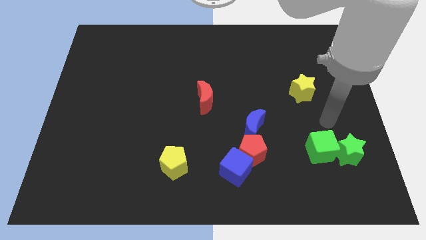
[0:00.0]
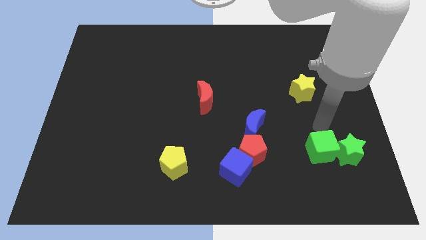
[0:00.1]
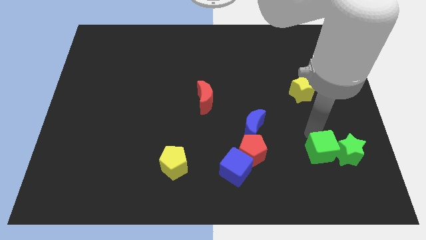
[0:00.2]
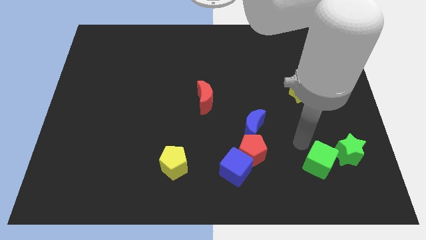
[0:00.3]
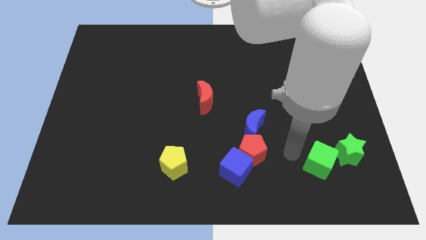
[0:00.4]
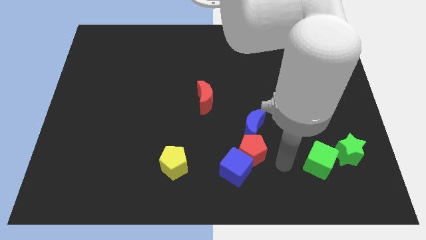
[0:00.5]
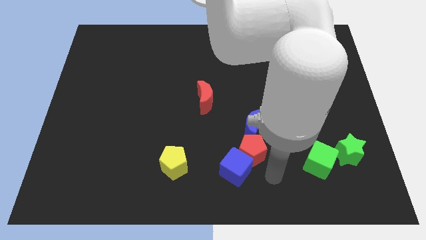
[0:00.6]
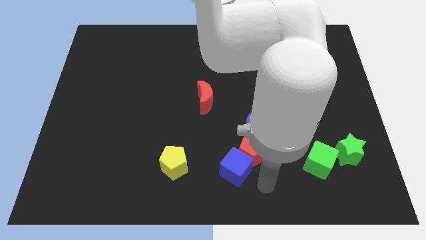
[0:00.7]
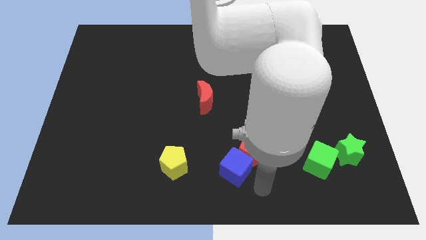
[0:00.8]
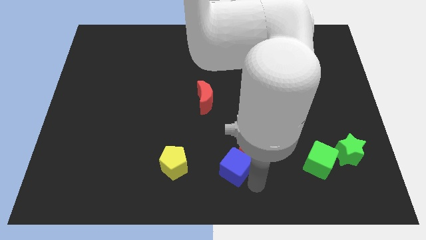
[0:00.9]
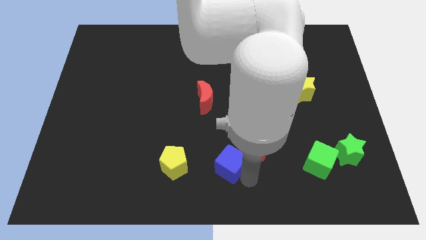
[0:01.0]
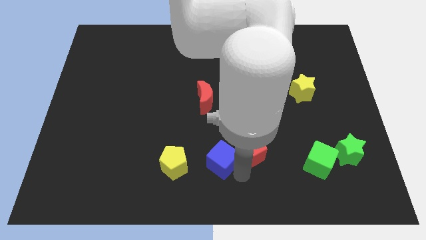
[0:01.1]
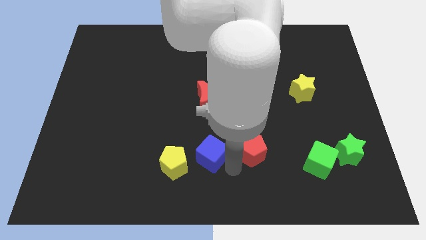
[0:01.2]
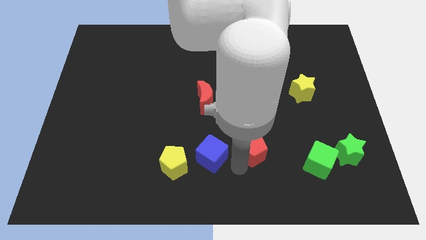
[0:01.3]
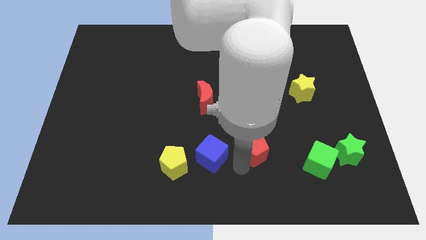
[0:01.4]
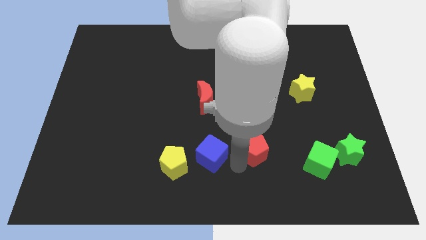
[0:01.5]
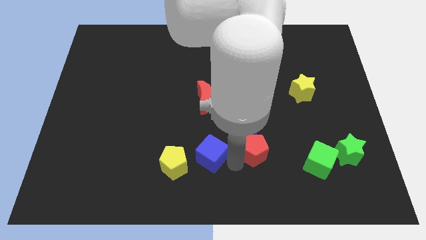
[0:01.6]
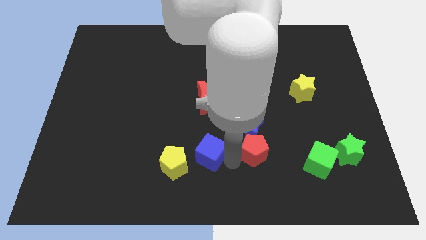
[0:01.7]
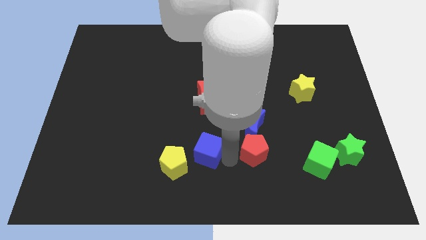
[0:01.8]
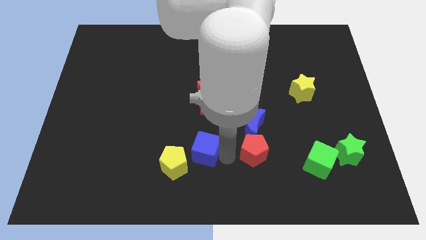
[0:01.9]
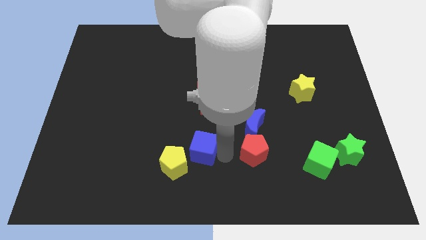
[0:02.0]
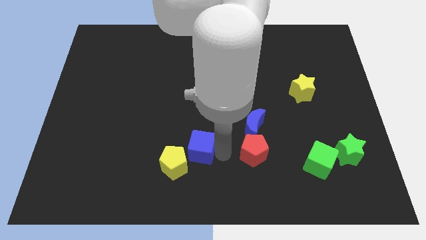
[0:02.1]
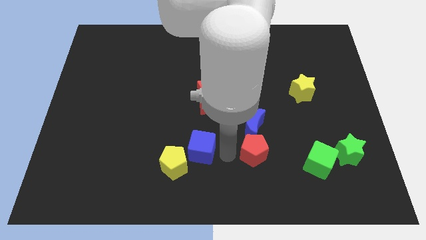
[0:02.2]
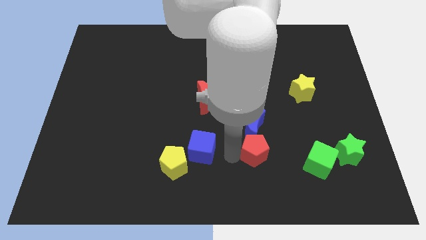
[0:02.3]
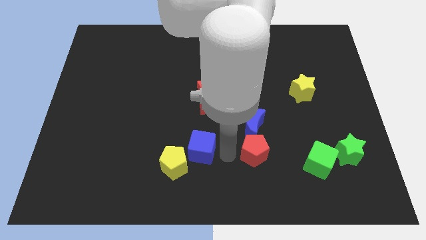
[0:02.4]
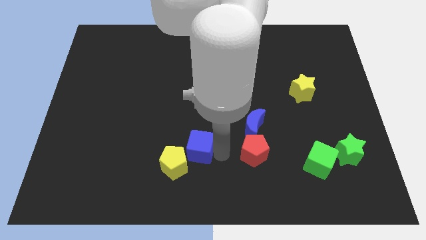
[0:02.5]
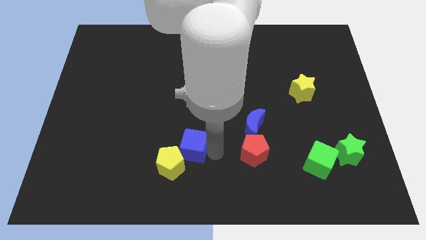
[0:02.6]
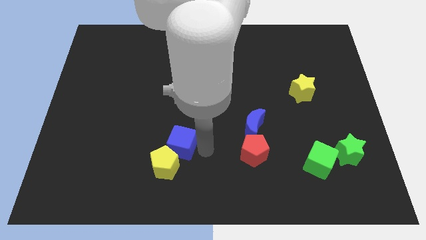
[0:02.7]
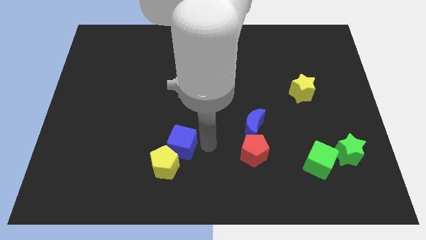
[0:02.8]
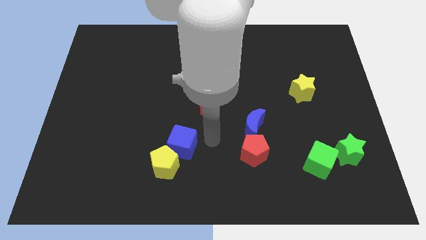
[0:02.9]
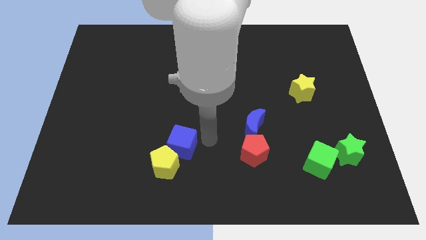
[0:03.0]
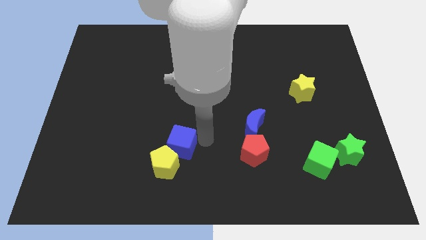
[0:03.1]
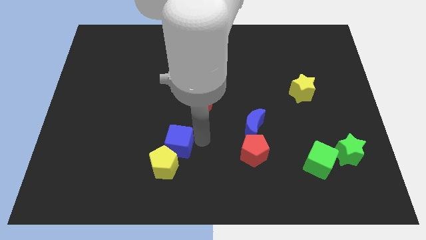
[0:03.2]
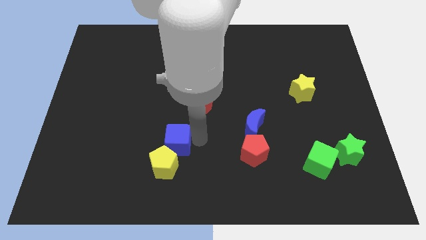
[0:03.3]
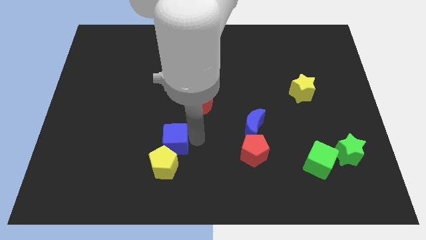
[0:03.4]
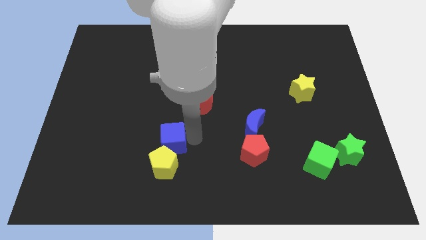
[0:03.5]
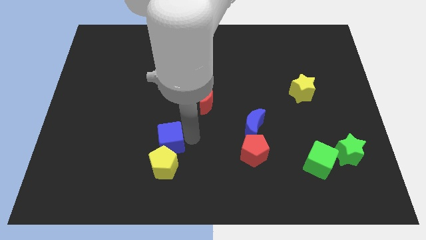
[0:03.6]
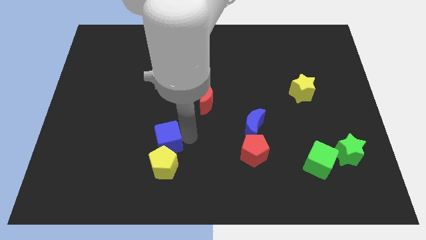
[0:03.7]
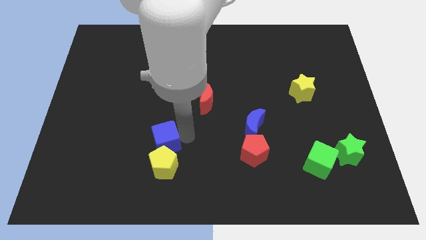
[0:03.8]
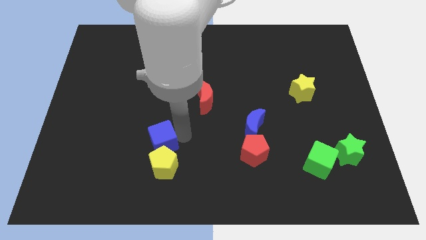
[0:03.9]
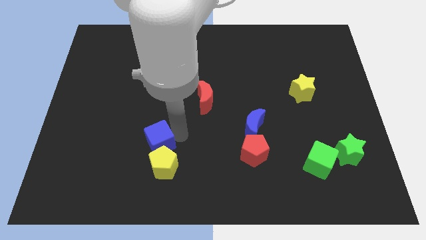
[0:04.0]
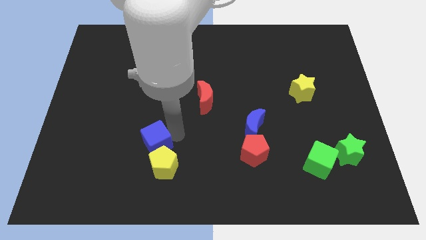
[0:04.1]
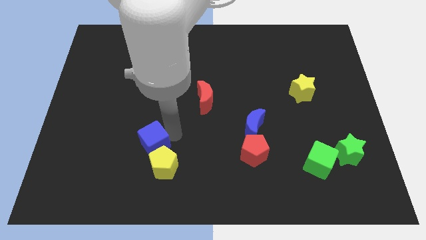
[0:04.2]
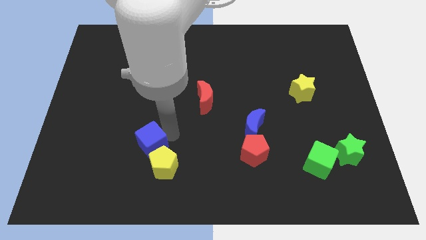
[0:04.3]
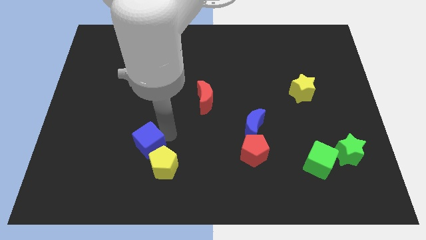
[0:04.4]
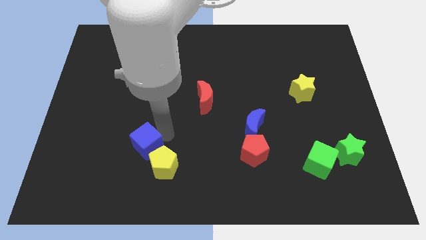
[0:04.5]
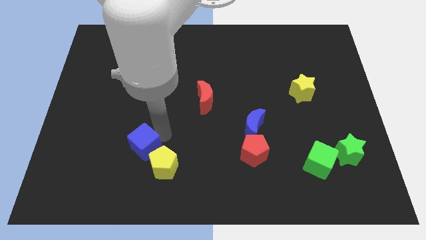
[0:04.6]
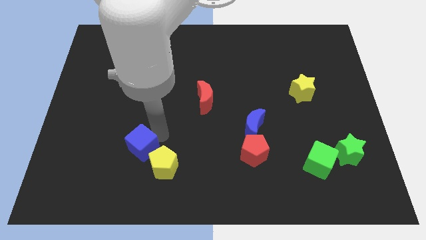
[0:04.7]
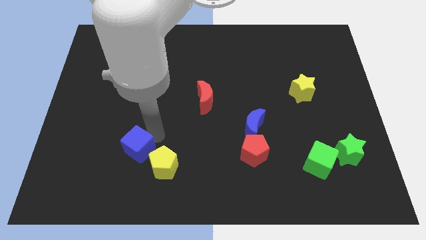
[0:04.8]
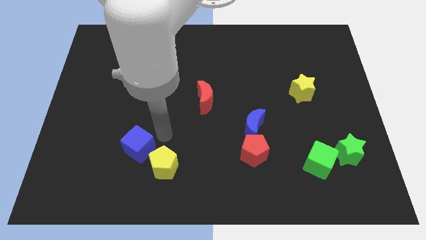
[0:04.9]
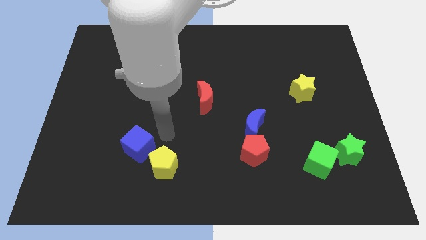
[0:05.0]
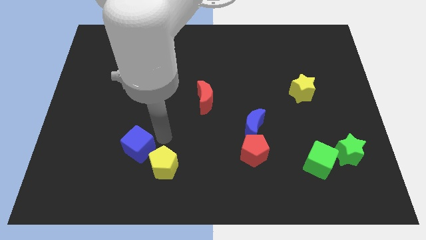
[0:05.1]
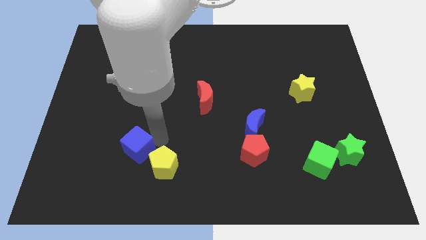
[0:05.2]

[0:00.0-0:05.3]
push the blue cube left

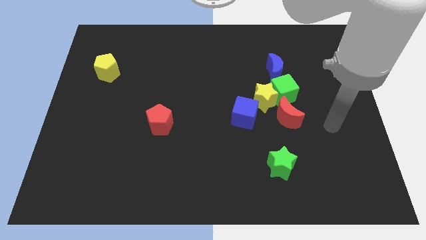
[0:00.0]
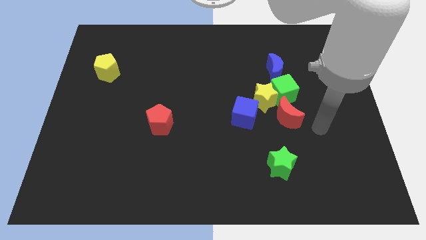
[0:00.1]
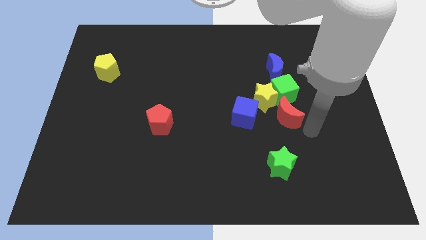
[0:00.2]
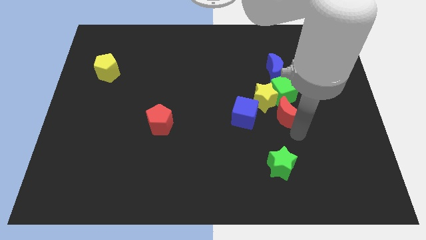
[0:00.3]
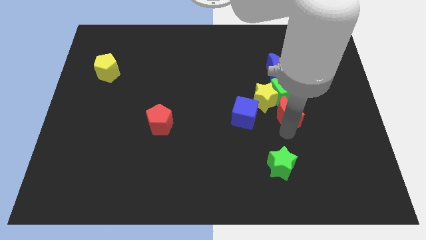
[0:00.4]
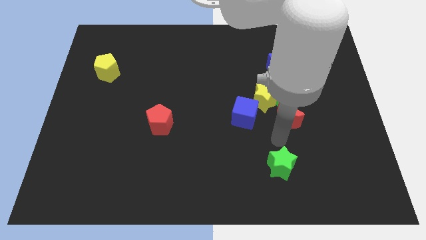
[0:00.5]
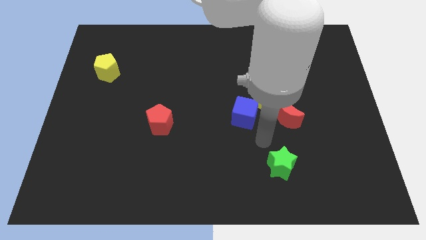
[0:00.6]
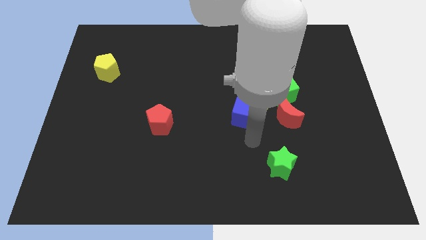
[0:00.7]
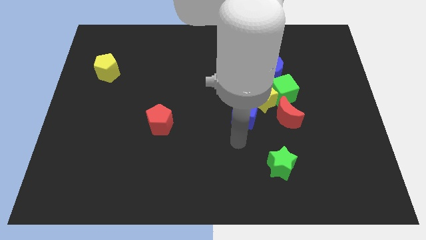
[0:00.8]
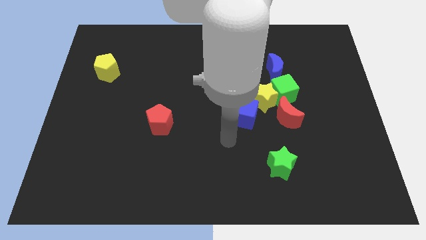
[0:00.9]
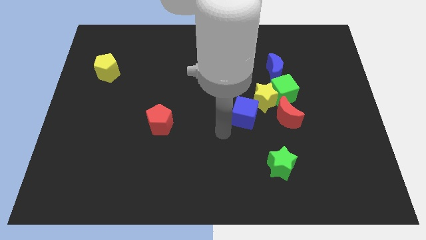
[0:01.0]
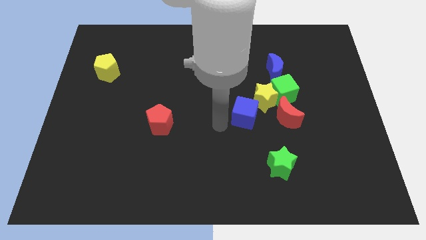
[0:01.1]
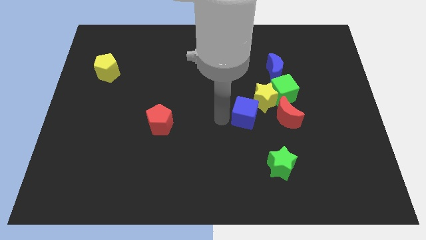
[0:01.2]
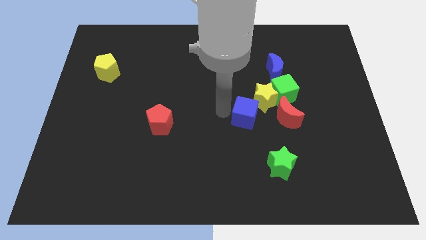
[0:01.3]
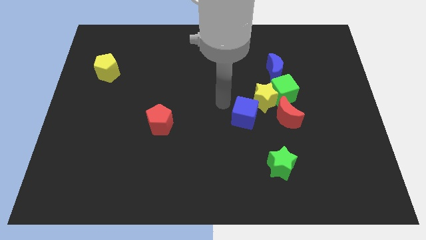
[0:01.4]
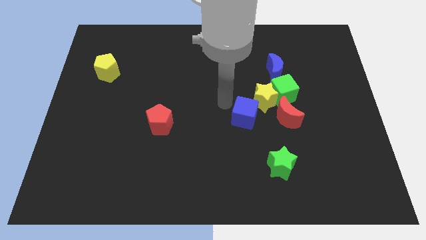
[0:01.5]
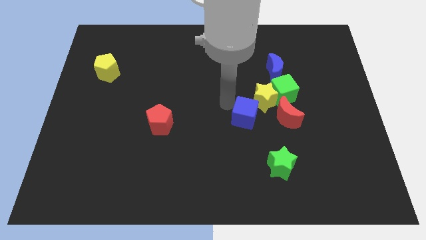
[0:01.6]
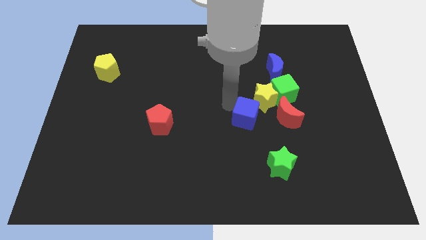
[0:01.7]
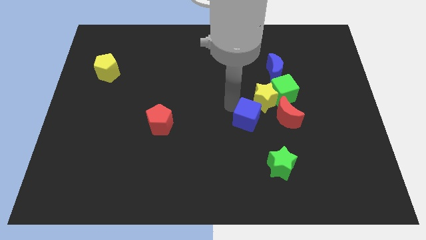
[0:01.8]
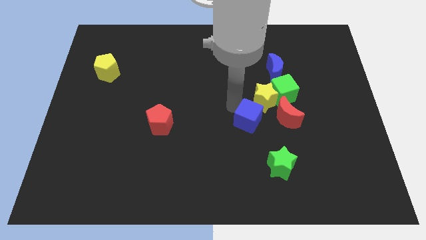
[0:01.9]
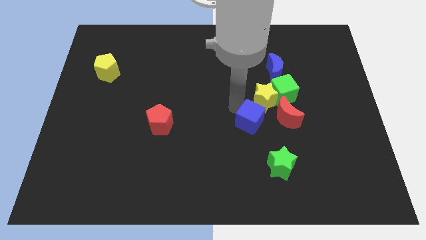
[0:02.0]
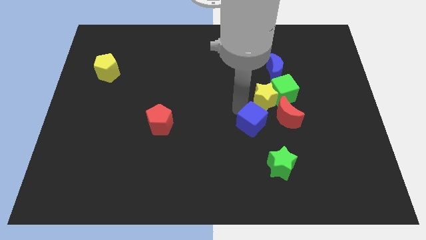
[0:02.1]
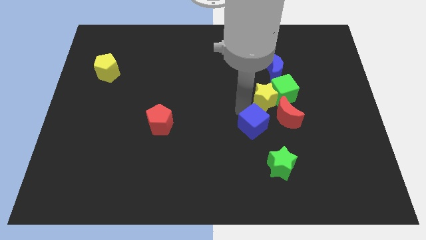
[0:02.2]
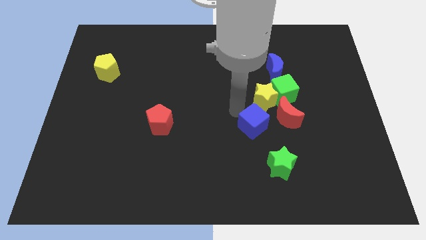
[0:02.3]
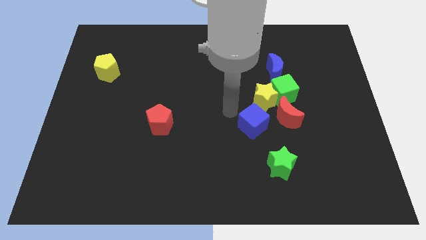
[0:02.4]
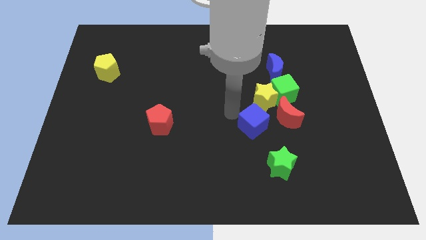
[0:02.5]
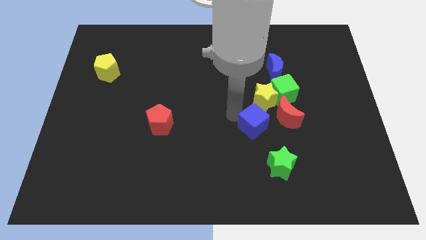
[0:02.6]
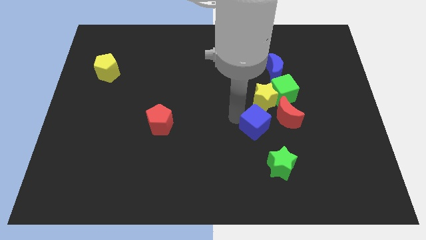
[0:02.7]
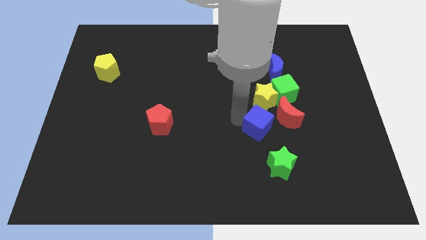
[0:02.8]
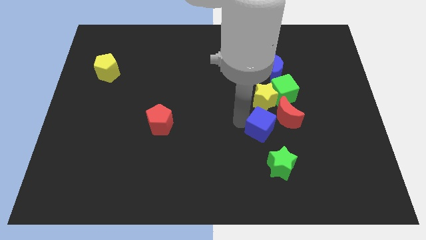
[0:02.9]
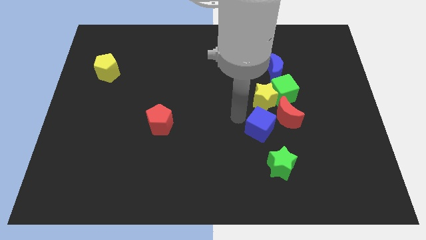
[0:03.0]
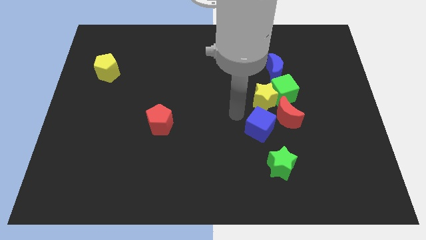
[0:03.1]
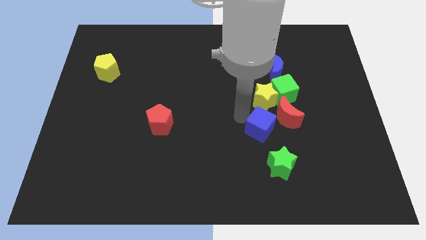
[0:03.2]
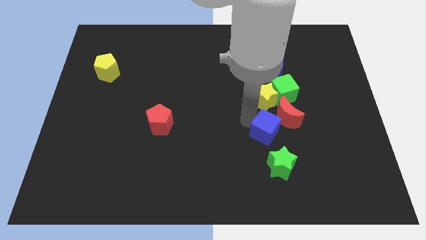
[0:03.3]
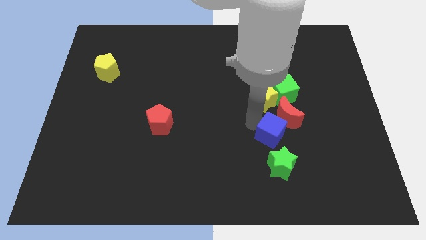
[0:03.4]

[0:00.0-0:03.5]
slightly push the blue cube downwards and to the right diagonally
